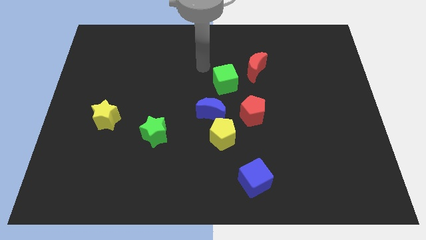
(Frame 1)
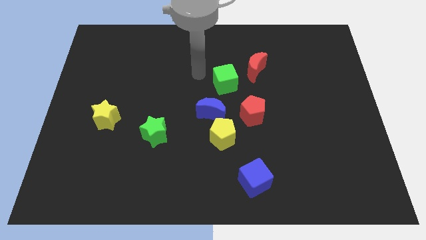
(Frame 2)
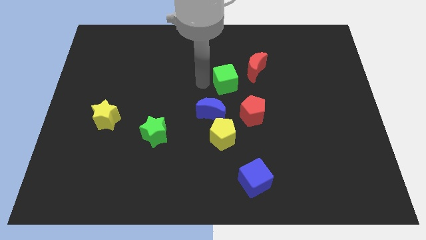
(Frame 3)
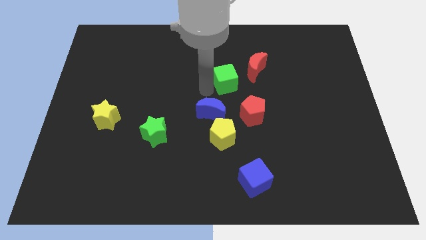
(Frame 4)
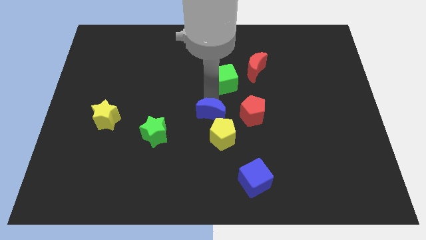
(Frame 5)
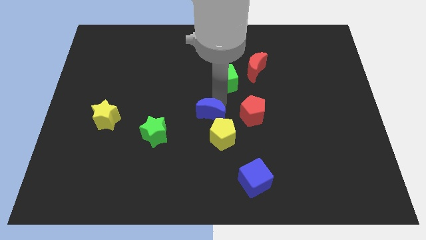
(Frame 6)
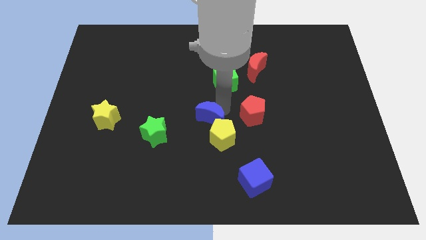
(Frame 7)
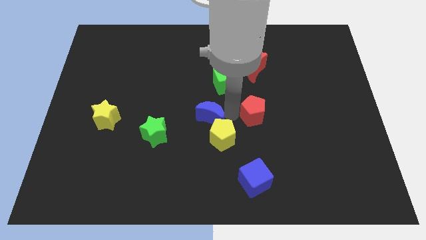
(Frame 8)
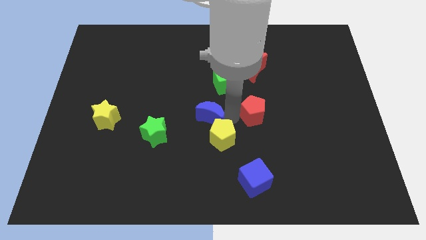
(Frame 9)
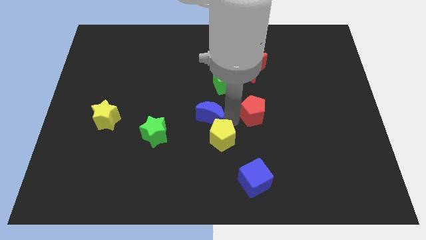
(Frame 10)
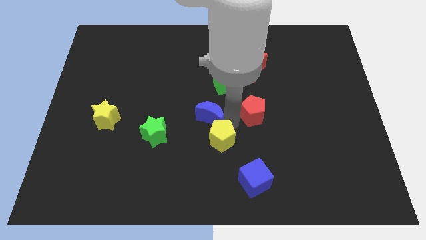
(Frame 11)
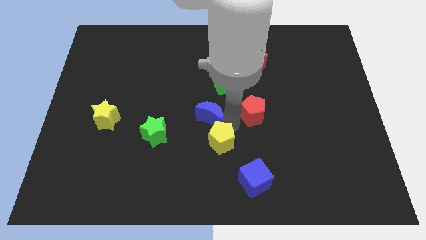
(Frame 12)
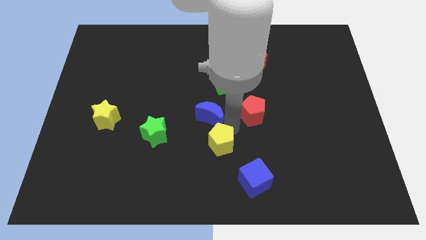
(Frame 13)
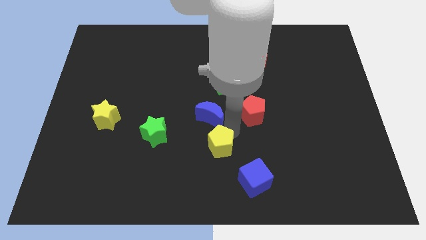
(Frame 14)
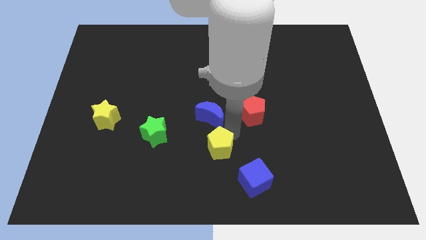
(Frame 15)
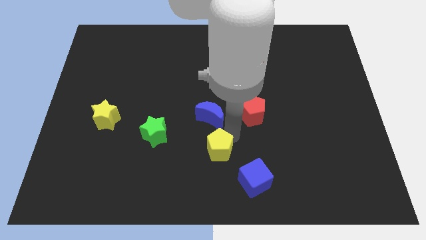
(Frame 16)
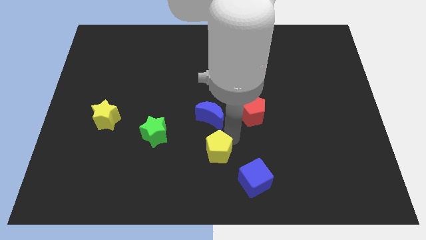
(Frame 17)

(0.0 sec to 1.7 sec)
move the yellow pentagon away from the blue moon and red pentagon

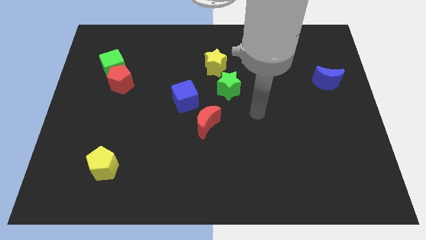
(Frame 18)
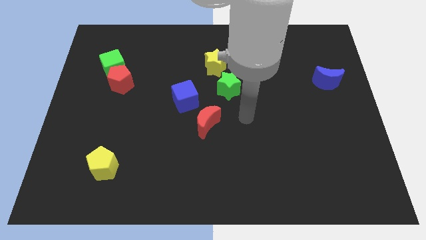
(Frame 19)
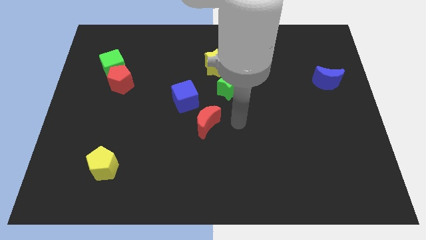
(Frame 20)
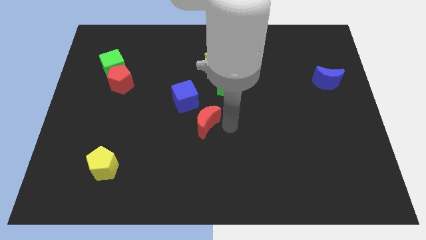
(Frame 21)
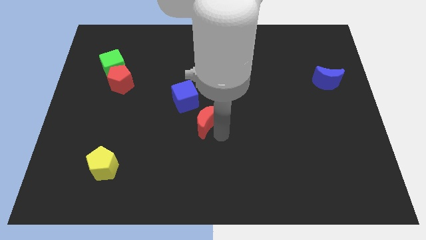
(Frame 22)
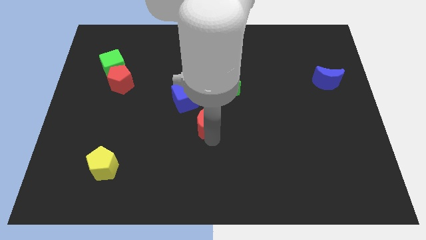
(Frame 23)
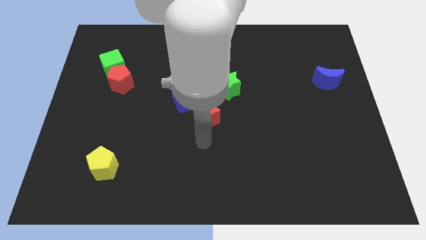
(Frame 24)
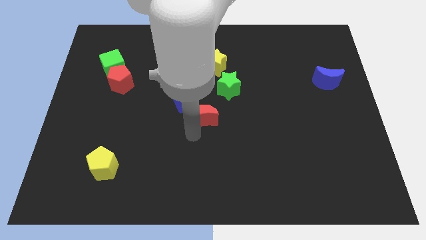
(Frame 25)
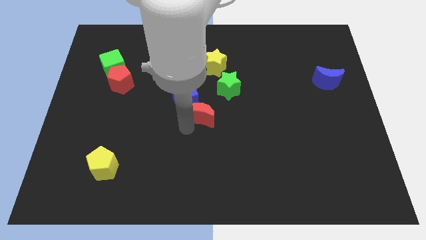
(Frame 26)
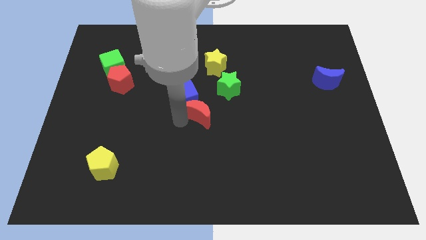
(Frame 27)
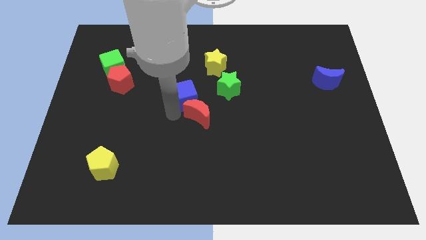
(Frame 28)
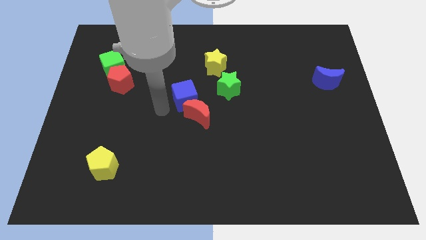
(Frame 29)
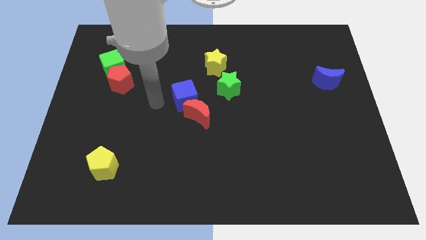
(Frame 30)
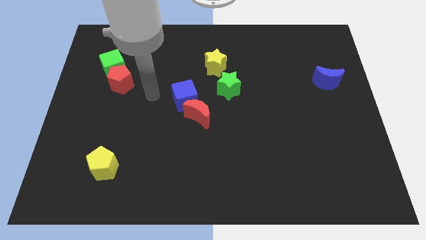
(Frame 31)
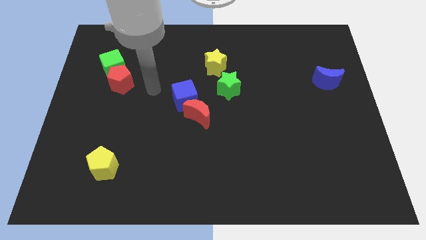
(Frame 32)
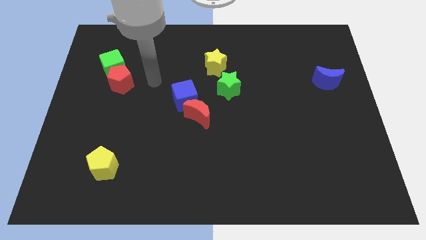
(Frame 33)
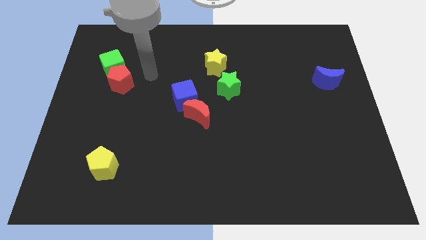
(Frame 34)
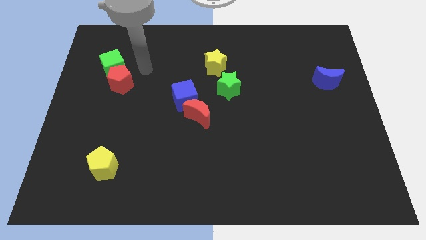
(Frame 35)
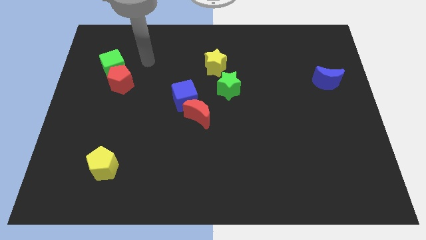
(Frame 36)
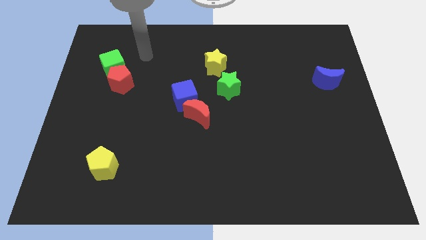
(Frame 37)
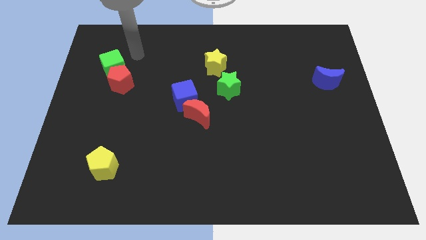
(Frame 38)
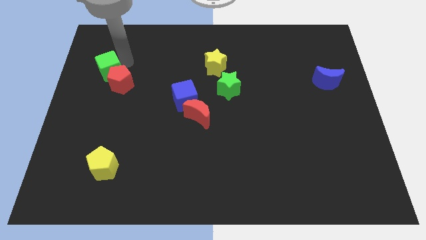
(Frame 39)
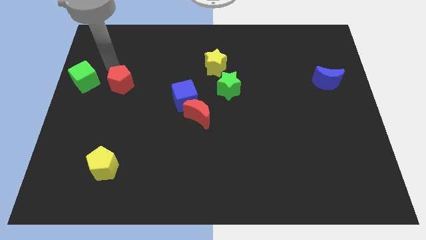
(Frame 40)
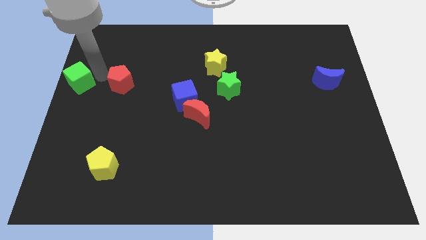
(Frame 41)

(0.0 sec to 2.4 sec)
move the red pentagon away from the green cube

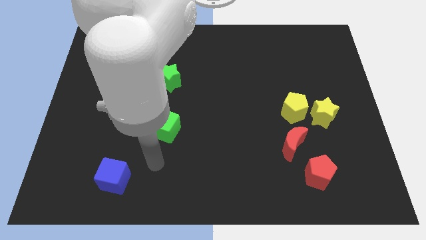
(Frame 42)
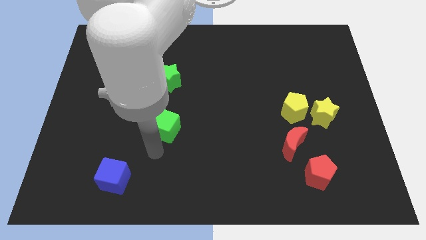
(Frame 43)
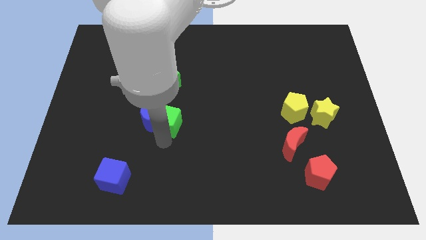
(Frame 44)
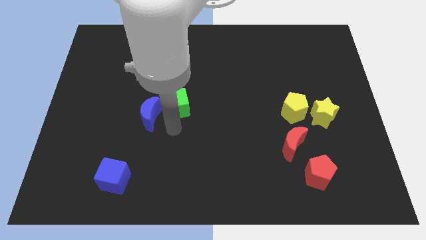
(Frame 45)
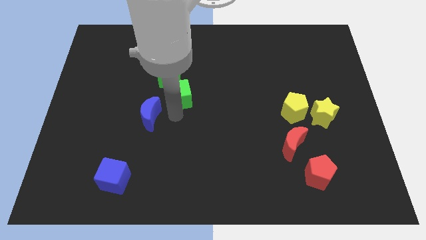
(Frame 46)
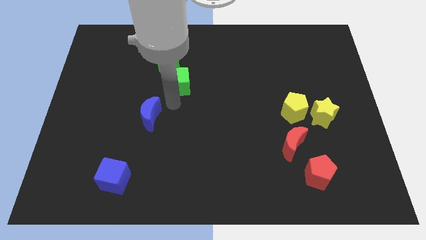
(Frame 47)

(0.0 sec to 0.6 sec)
separate the blue moon from the green cube

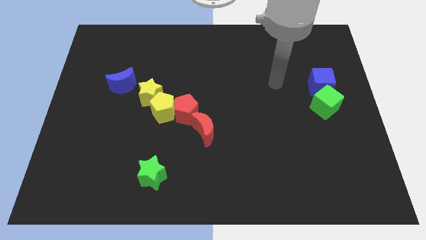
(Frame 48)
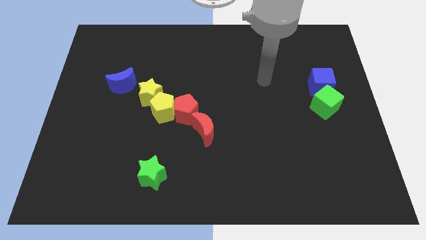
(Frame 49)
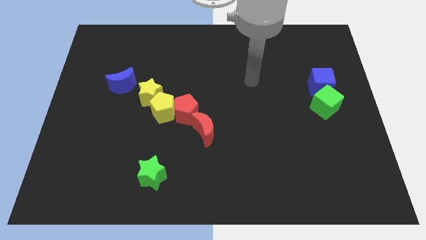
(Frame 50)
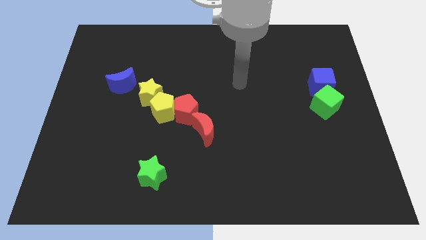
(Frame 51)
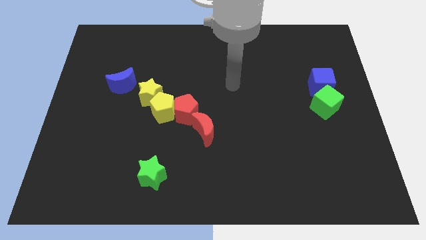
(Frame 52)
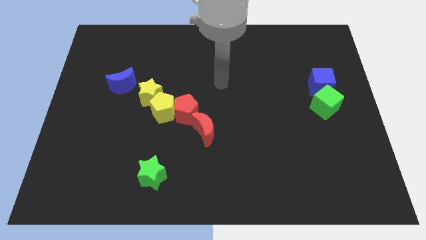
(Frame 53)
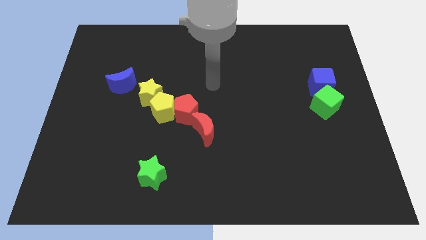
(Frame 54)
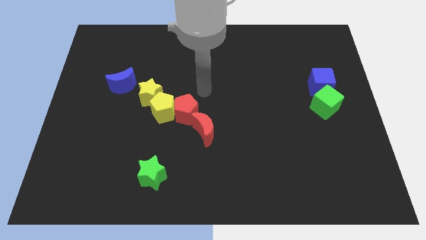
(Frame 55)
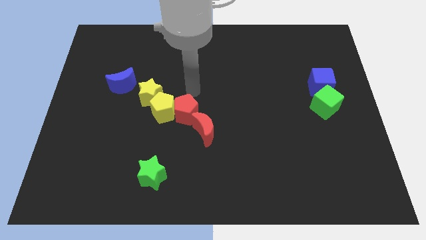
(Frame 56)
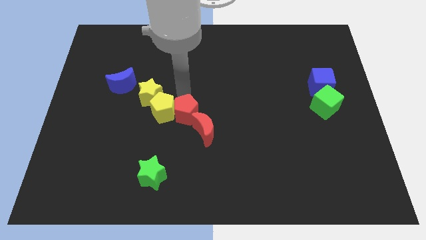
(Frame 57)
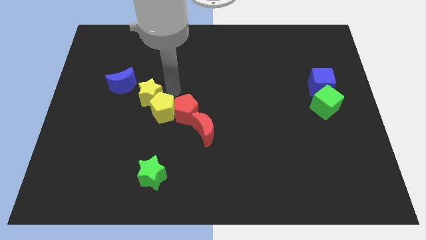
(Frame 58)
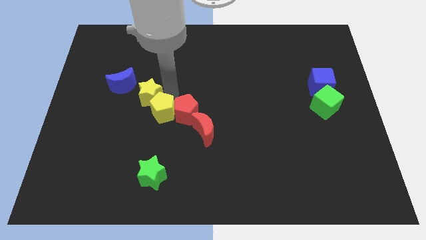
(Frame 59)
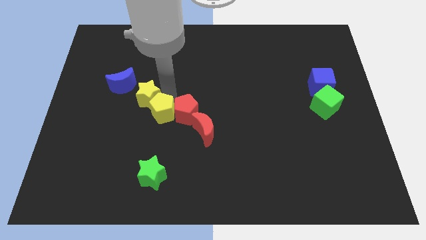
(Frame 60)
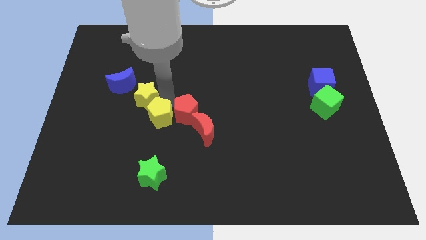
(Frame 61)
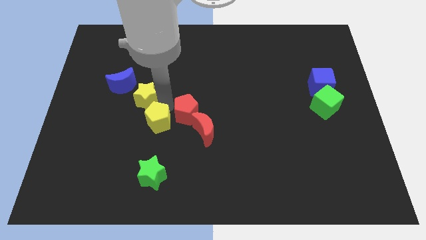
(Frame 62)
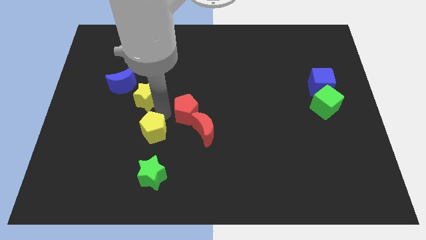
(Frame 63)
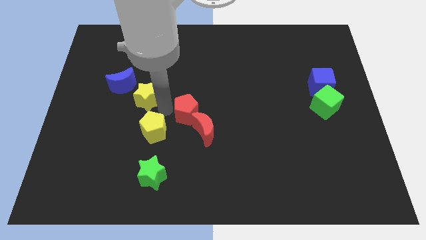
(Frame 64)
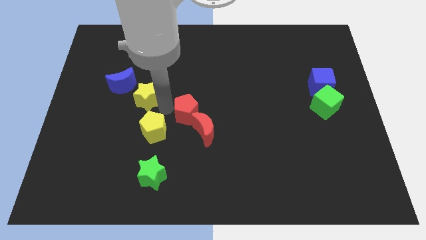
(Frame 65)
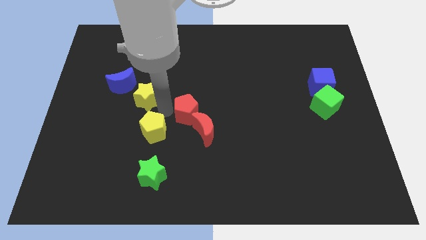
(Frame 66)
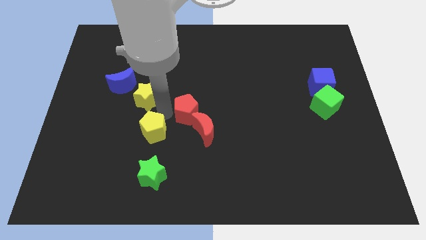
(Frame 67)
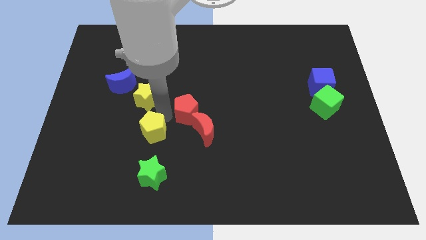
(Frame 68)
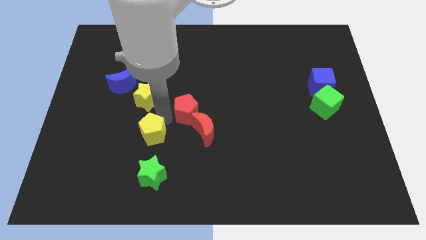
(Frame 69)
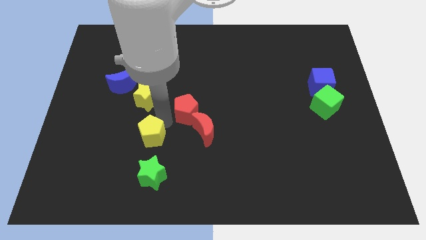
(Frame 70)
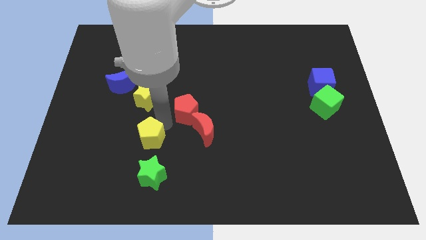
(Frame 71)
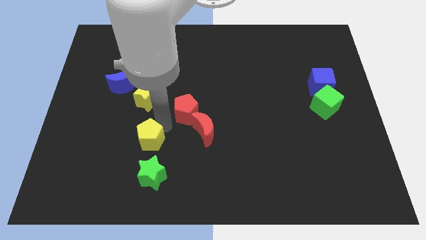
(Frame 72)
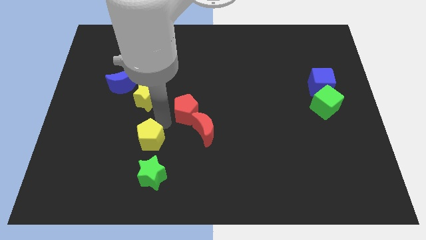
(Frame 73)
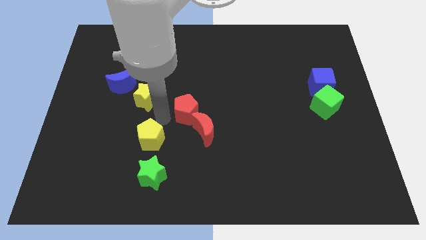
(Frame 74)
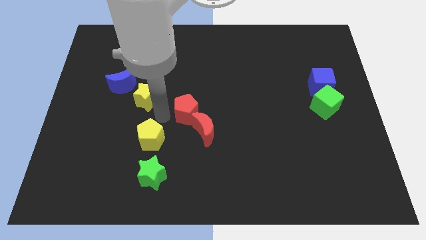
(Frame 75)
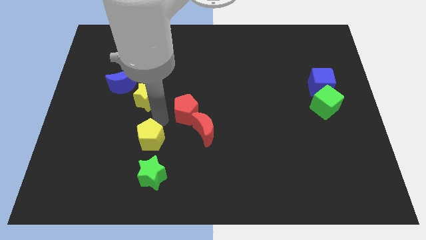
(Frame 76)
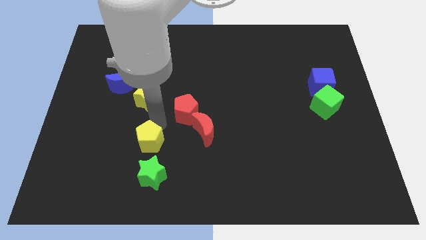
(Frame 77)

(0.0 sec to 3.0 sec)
pull the yellow pentagon apart from the red pentagon and yellow star

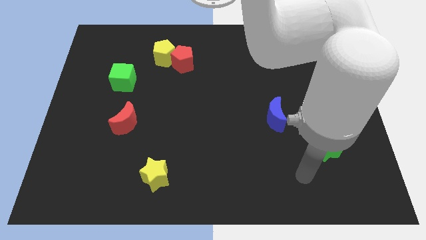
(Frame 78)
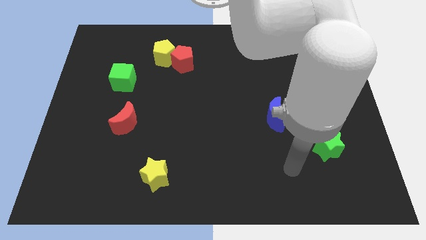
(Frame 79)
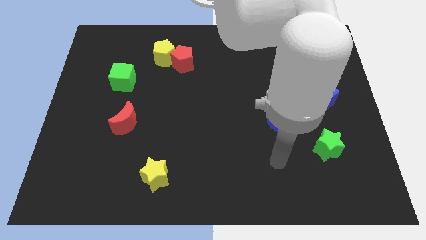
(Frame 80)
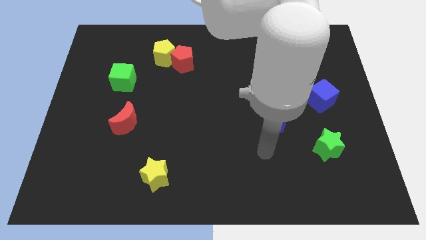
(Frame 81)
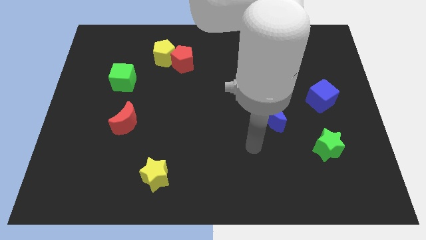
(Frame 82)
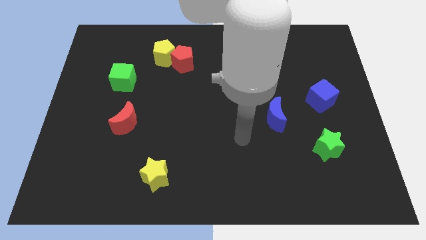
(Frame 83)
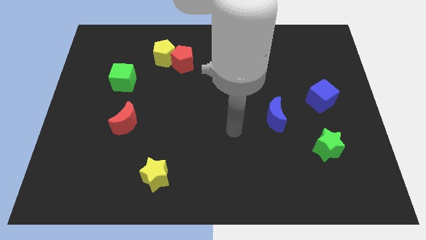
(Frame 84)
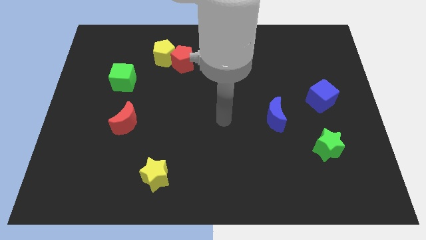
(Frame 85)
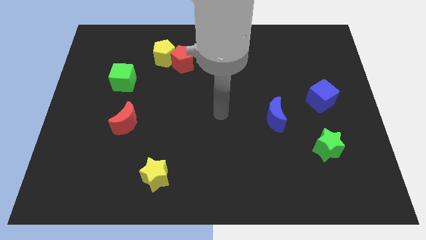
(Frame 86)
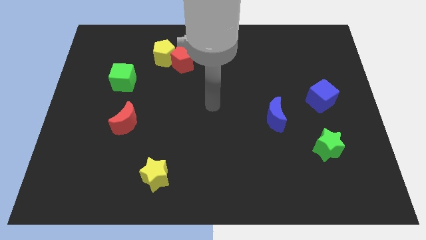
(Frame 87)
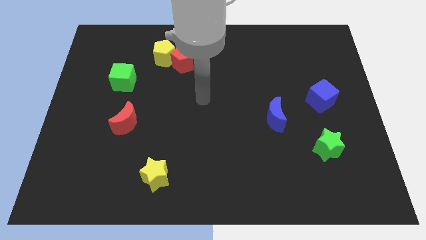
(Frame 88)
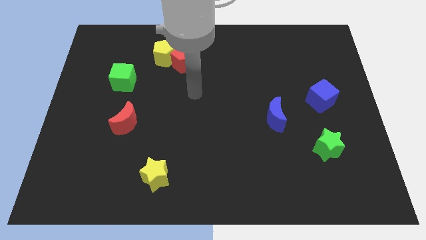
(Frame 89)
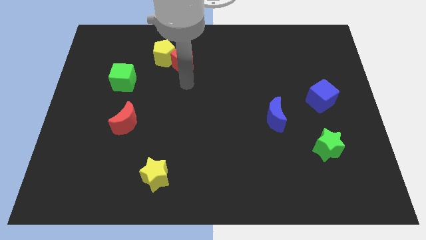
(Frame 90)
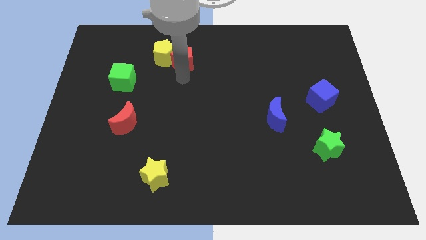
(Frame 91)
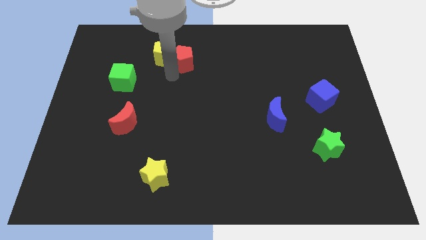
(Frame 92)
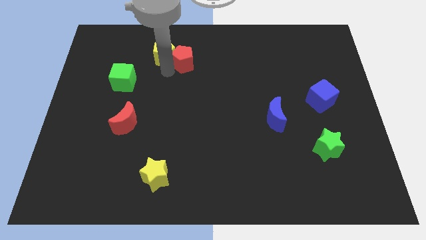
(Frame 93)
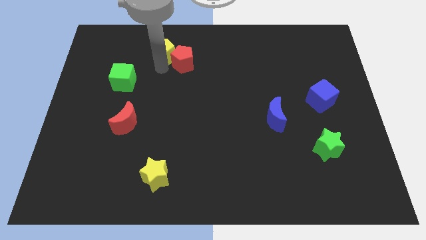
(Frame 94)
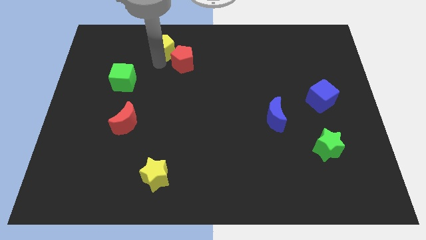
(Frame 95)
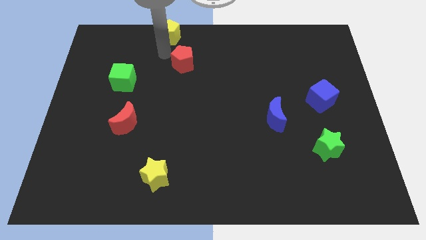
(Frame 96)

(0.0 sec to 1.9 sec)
pull the red pentagon apart from the yellow pentagon
